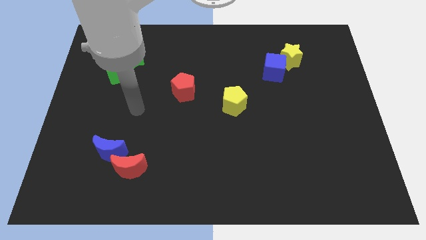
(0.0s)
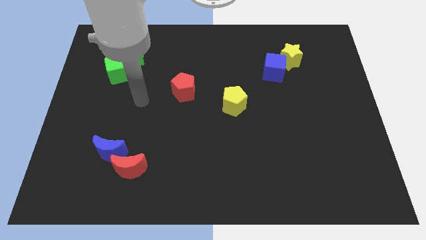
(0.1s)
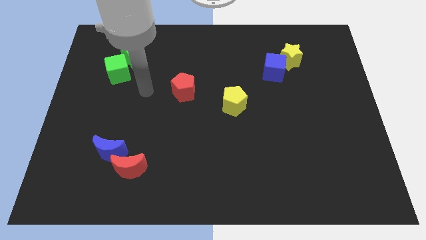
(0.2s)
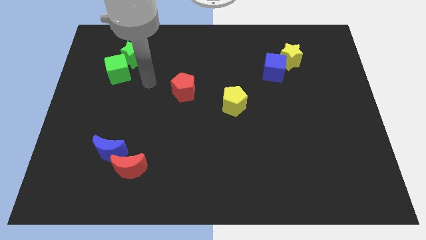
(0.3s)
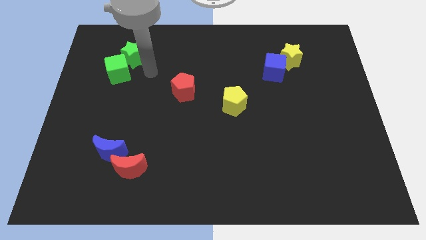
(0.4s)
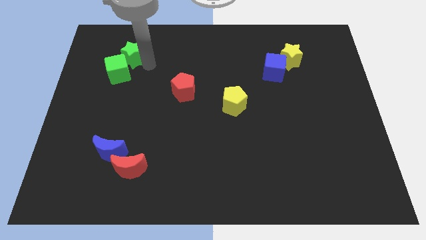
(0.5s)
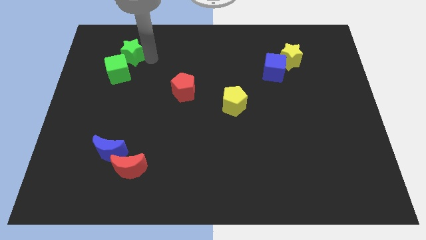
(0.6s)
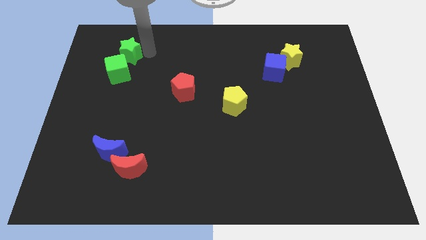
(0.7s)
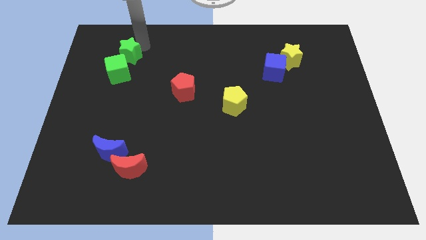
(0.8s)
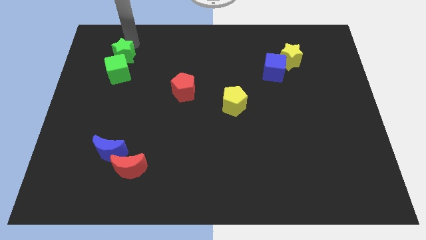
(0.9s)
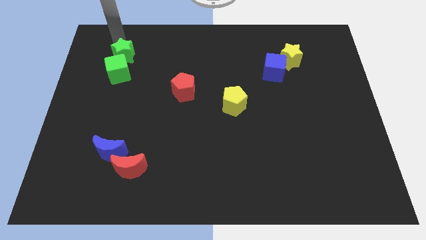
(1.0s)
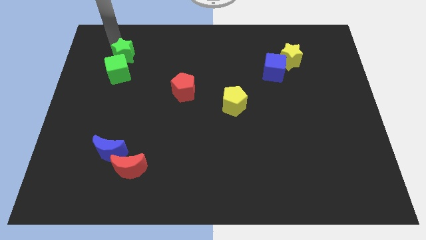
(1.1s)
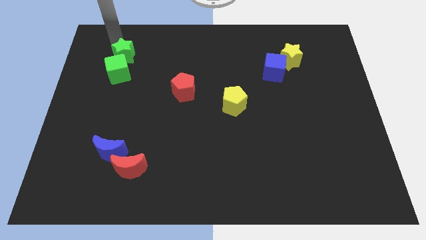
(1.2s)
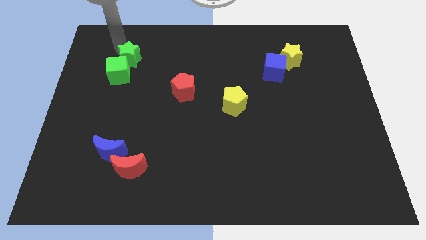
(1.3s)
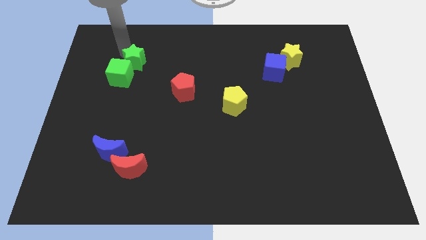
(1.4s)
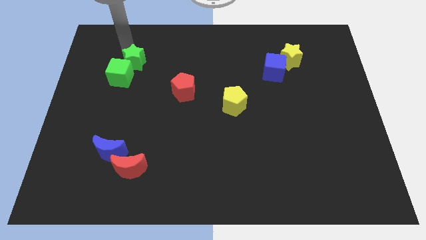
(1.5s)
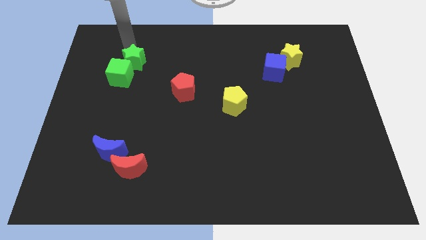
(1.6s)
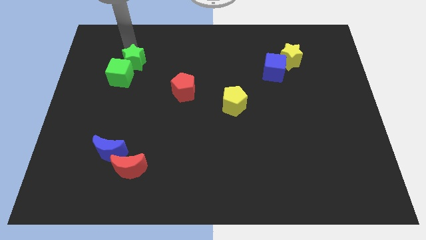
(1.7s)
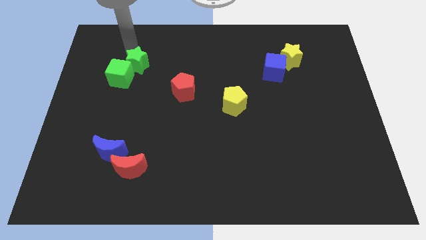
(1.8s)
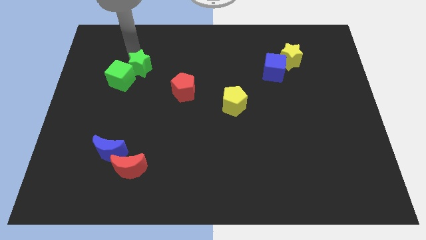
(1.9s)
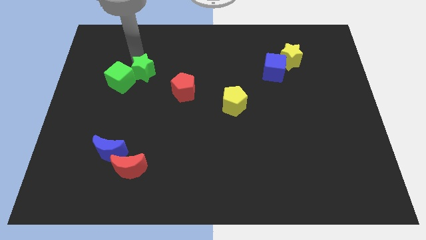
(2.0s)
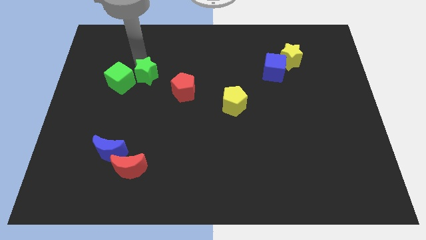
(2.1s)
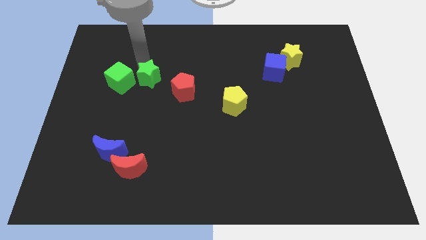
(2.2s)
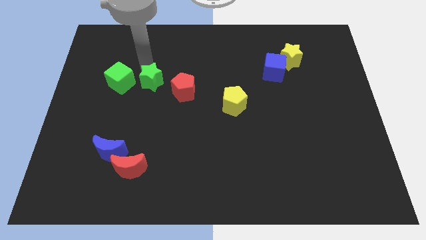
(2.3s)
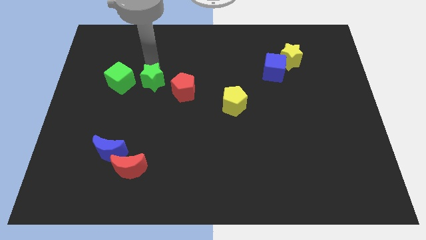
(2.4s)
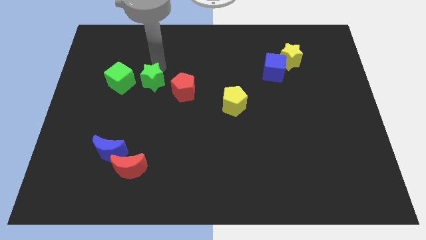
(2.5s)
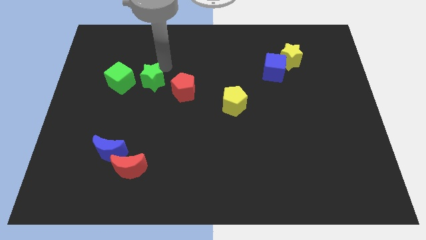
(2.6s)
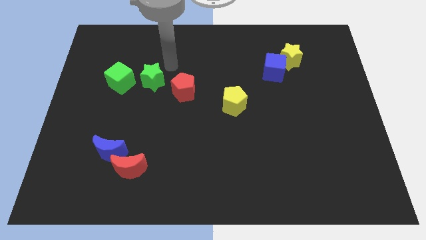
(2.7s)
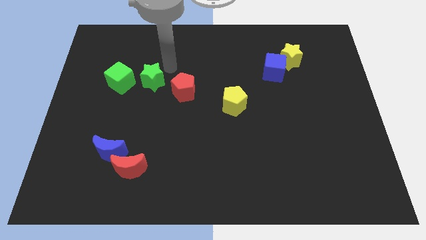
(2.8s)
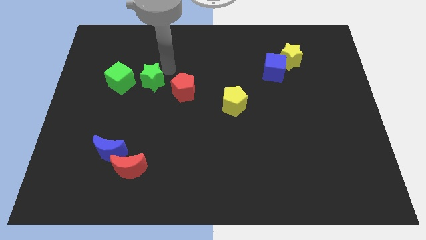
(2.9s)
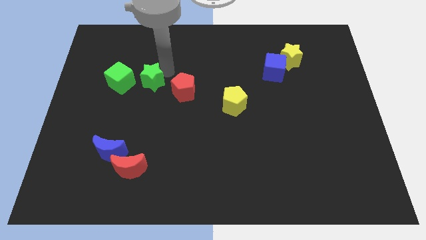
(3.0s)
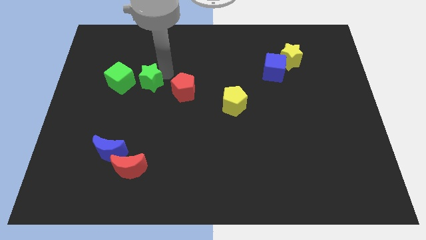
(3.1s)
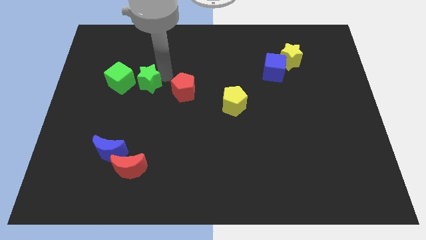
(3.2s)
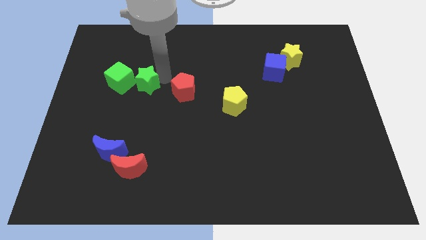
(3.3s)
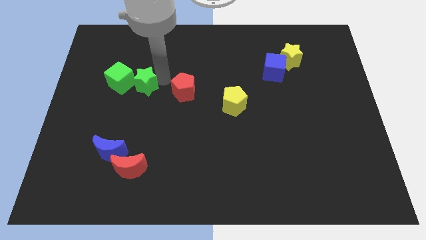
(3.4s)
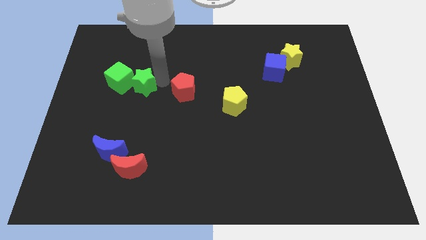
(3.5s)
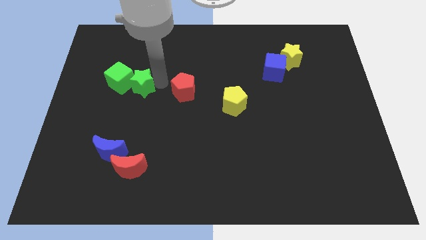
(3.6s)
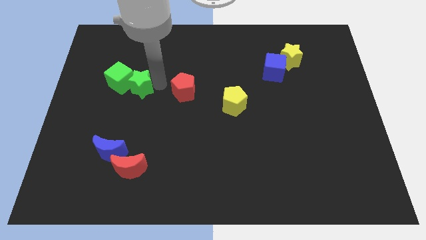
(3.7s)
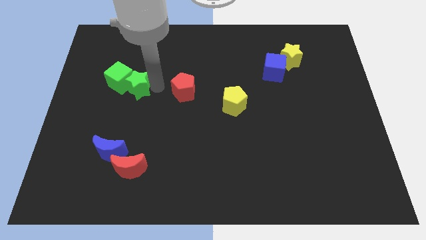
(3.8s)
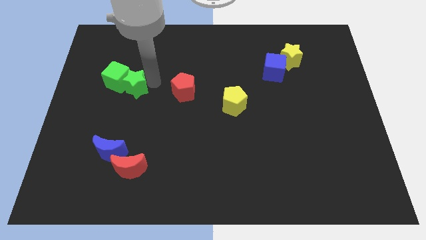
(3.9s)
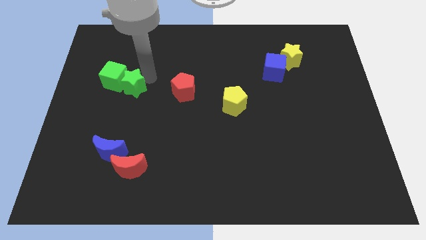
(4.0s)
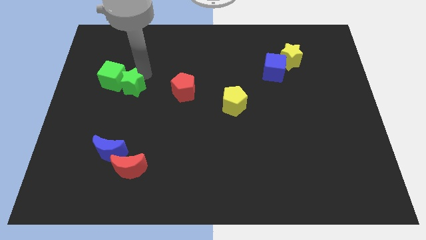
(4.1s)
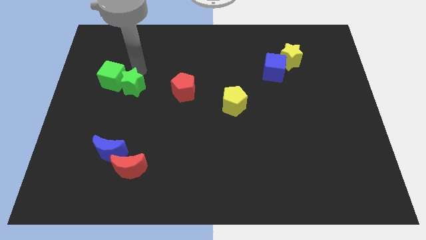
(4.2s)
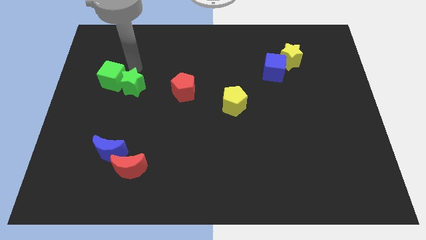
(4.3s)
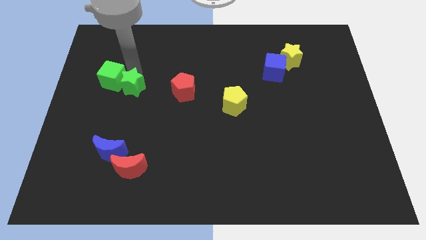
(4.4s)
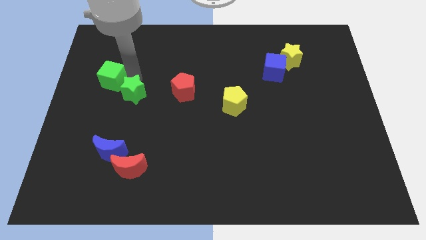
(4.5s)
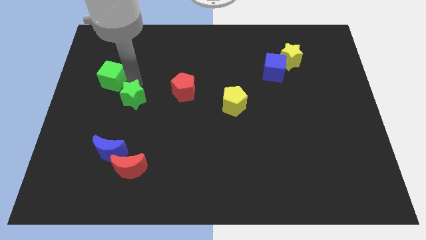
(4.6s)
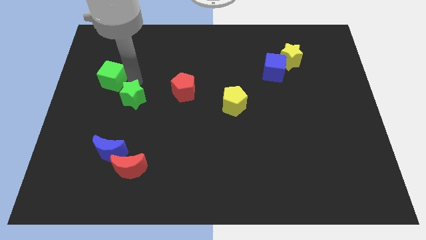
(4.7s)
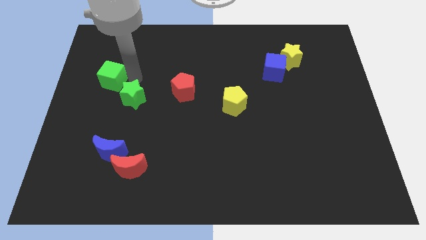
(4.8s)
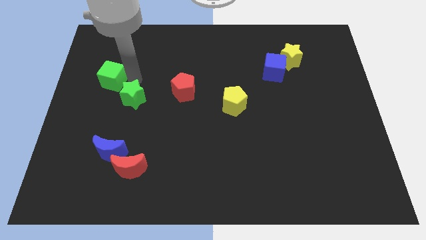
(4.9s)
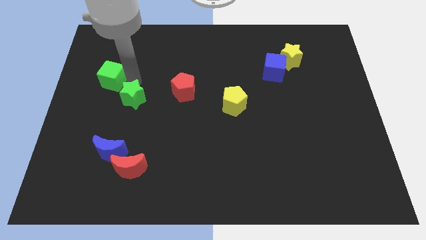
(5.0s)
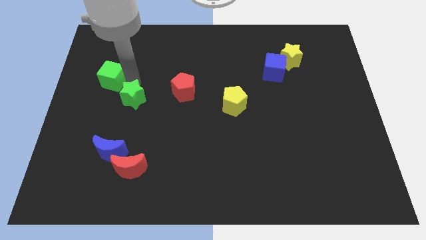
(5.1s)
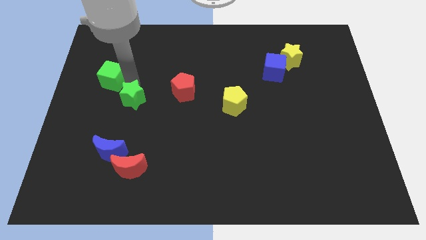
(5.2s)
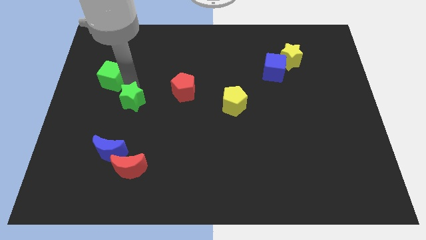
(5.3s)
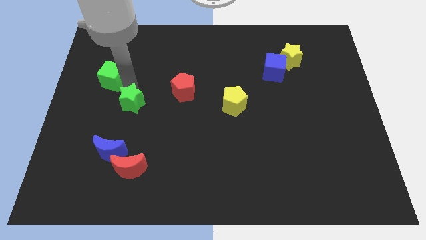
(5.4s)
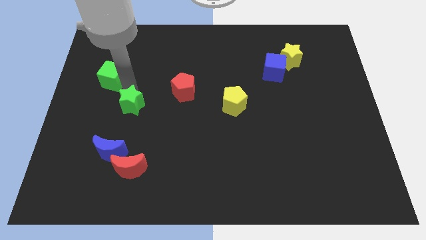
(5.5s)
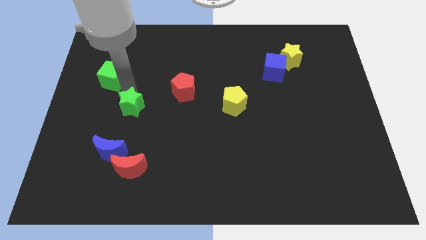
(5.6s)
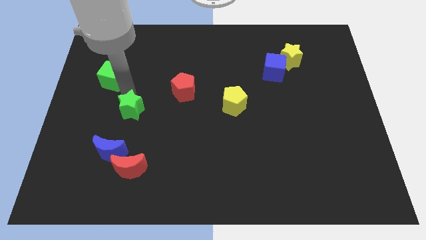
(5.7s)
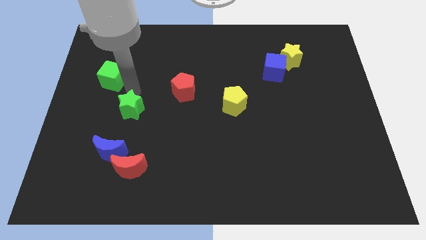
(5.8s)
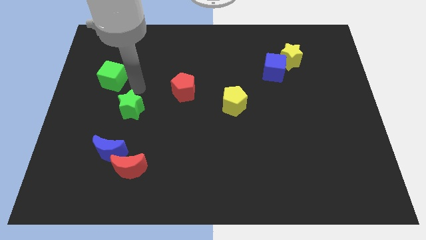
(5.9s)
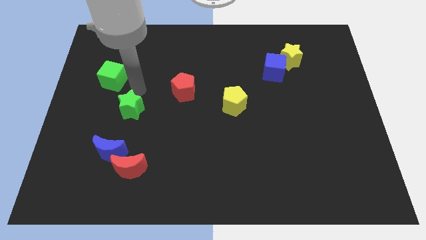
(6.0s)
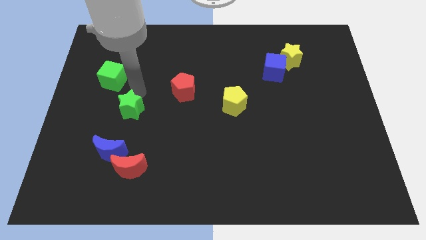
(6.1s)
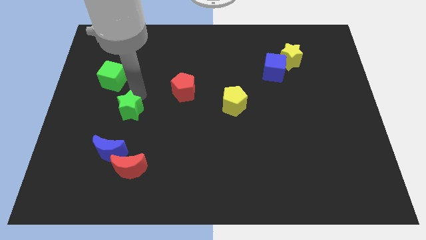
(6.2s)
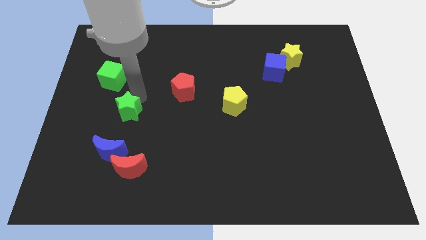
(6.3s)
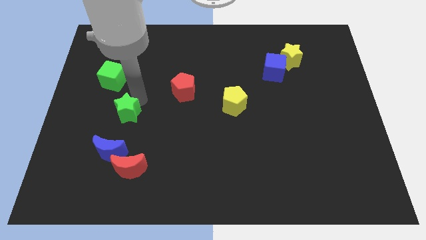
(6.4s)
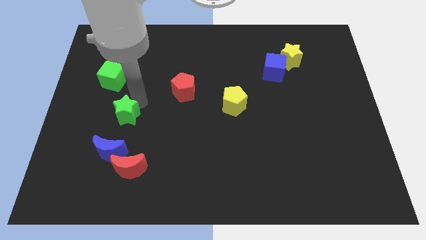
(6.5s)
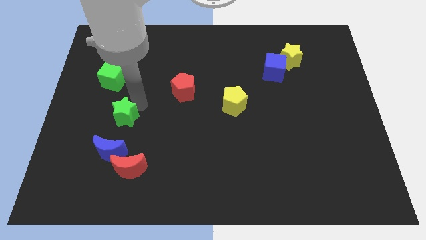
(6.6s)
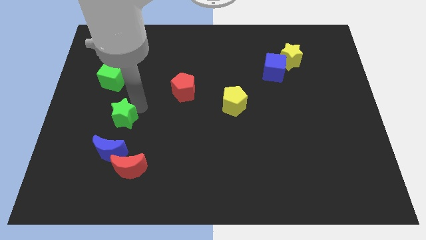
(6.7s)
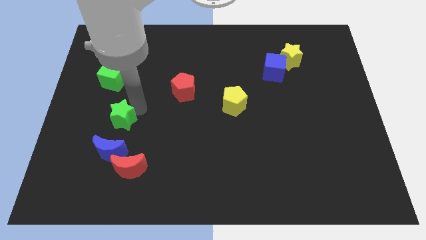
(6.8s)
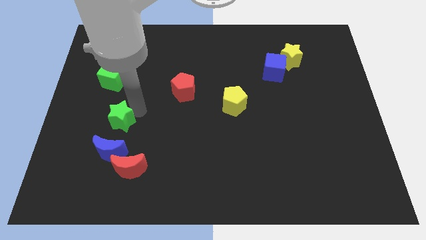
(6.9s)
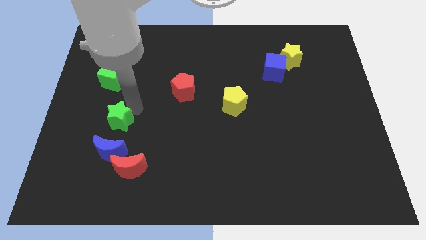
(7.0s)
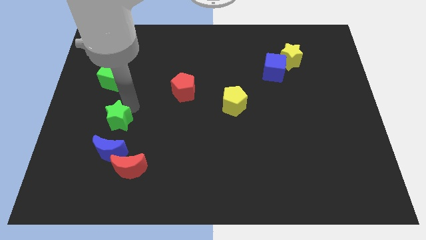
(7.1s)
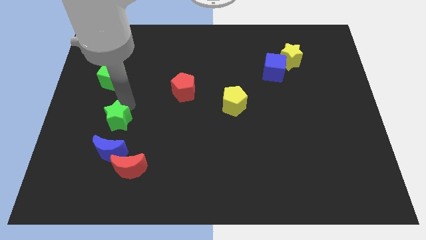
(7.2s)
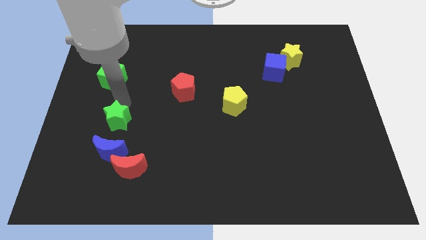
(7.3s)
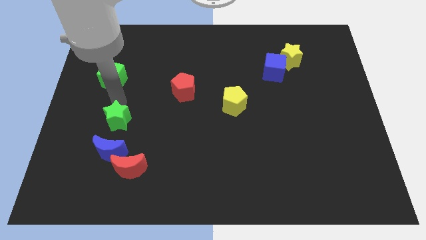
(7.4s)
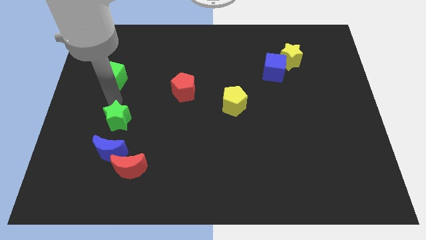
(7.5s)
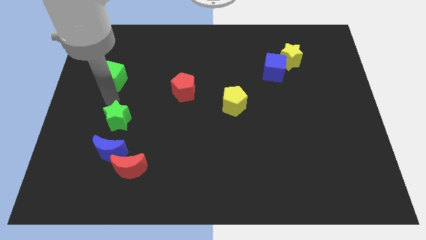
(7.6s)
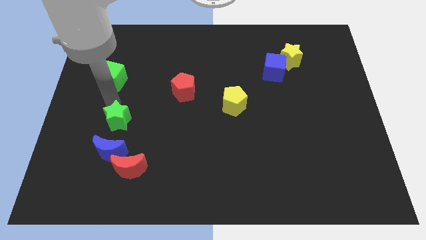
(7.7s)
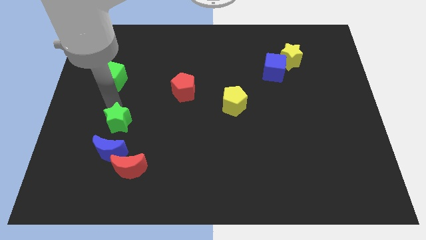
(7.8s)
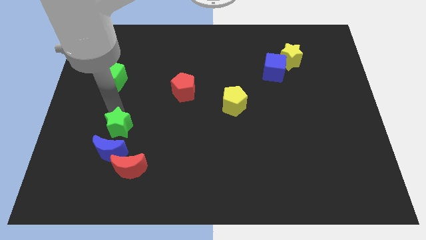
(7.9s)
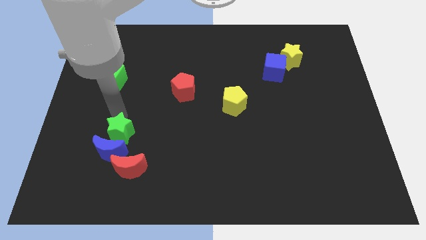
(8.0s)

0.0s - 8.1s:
push the green star to the blue moon
